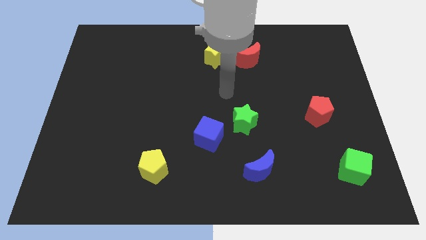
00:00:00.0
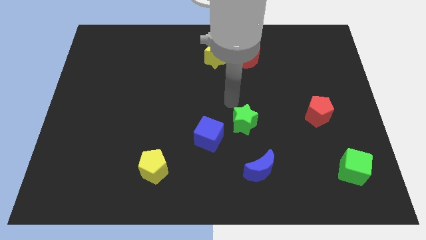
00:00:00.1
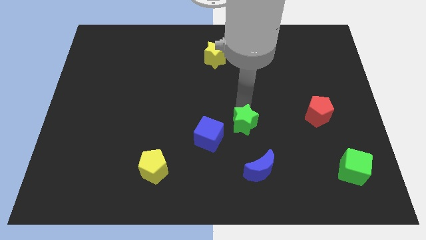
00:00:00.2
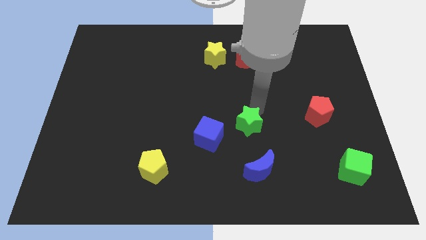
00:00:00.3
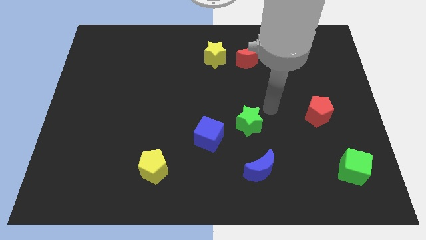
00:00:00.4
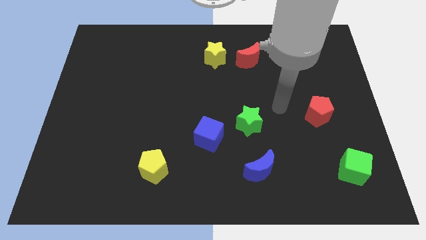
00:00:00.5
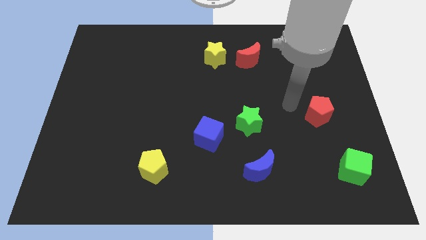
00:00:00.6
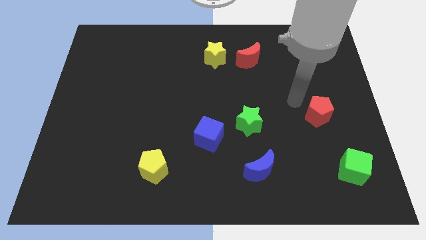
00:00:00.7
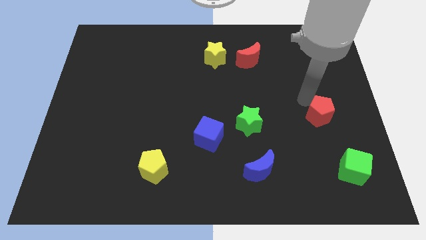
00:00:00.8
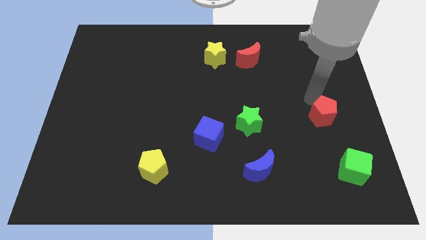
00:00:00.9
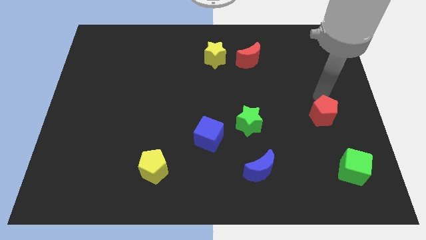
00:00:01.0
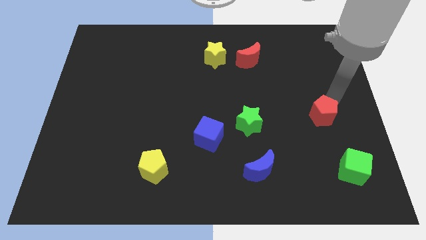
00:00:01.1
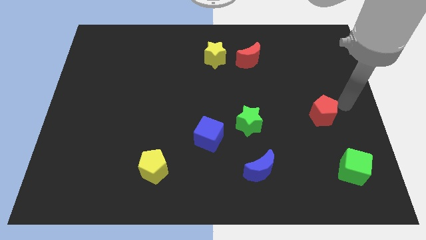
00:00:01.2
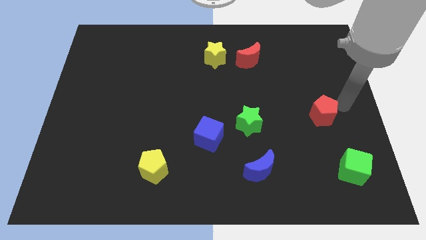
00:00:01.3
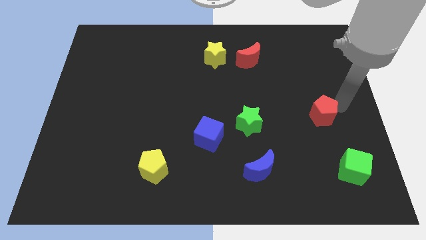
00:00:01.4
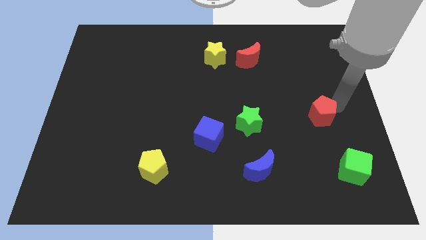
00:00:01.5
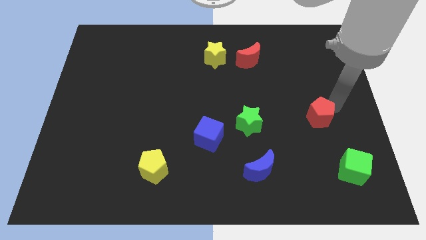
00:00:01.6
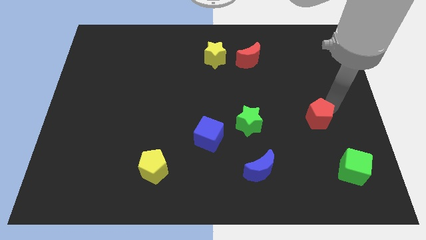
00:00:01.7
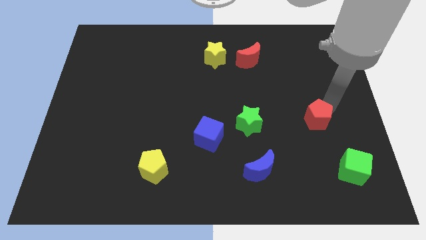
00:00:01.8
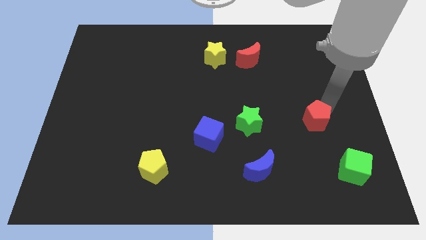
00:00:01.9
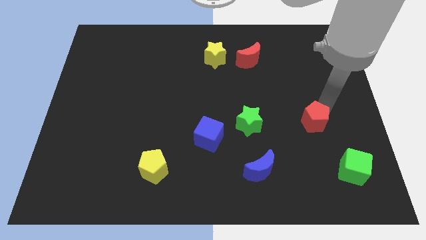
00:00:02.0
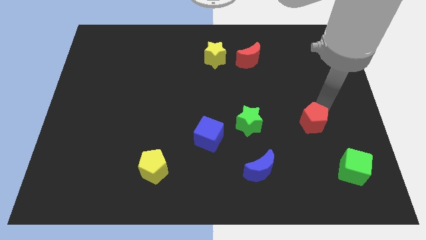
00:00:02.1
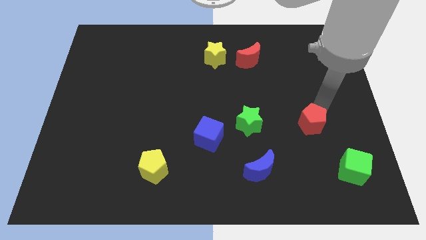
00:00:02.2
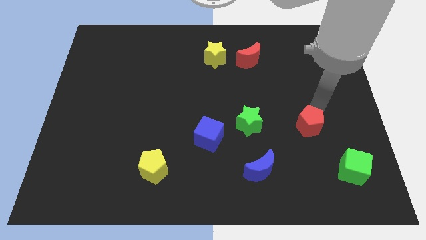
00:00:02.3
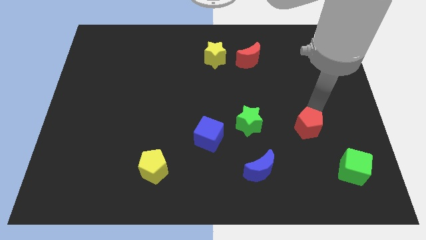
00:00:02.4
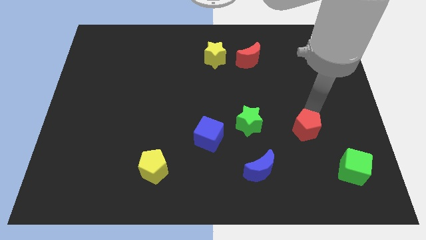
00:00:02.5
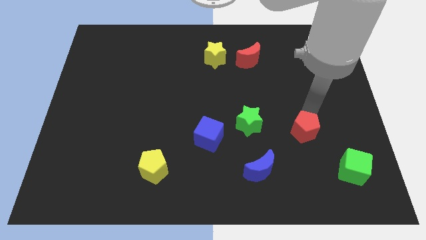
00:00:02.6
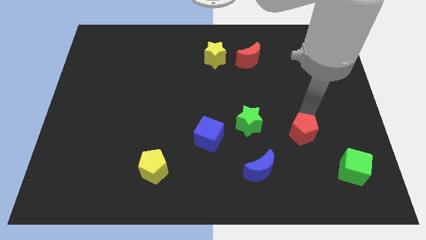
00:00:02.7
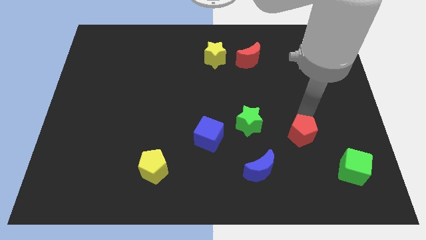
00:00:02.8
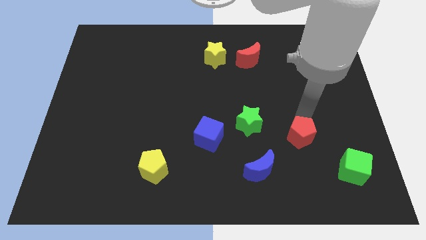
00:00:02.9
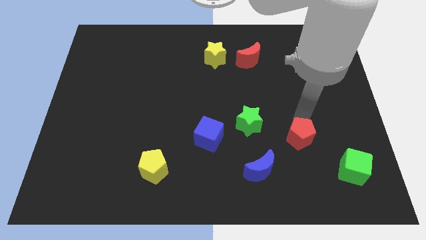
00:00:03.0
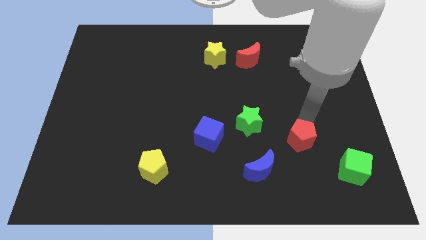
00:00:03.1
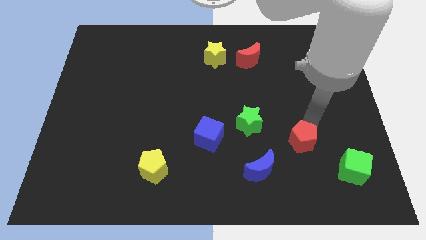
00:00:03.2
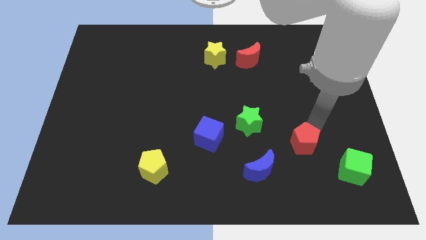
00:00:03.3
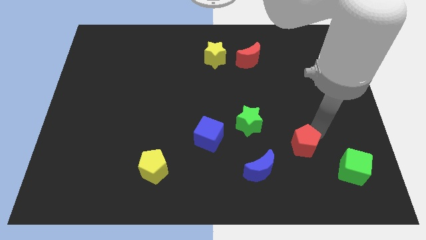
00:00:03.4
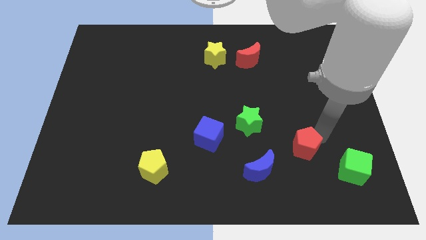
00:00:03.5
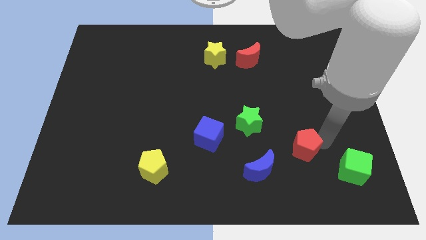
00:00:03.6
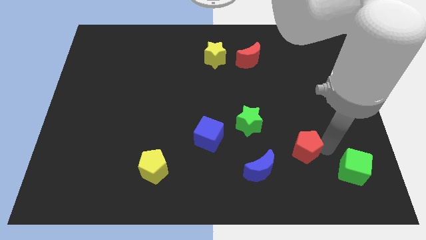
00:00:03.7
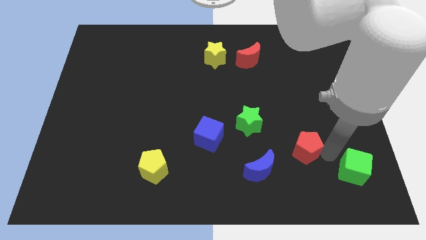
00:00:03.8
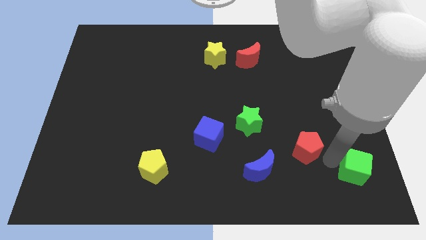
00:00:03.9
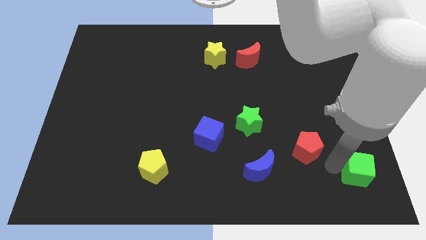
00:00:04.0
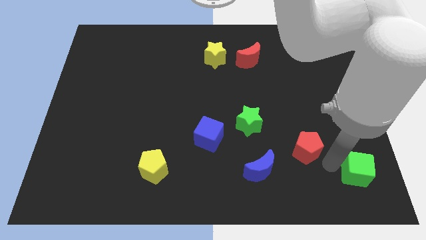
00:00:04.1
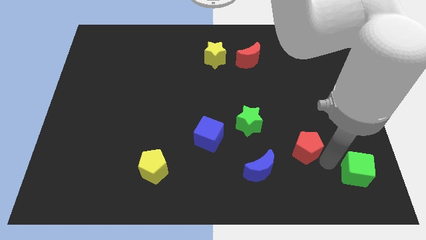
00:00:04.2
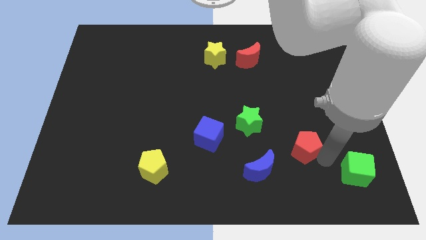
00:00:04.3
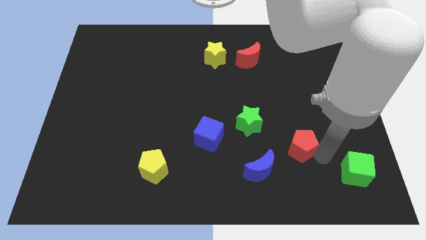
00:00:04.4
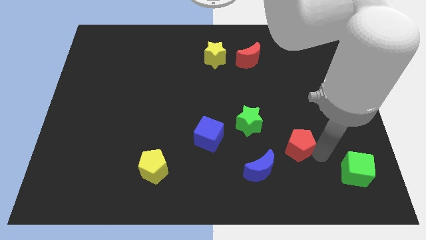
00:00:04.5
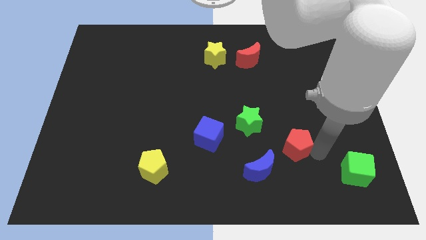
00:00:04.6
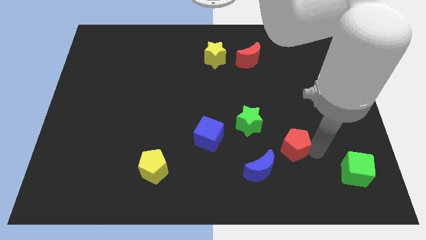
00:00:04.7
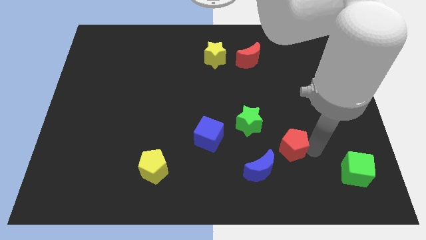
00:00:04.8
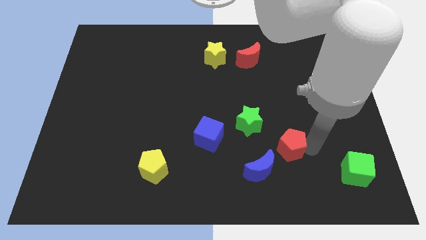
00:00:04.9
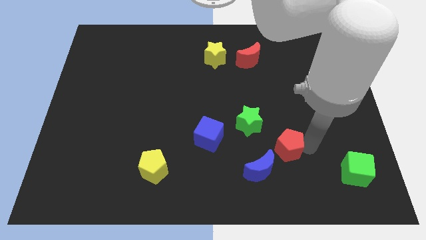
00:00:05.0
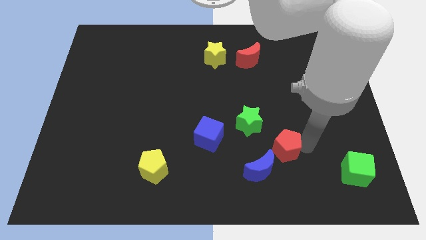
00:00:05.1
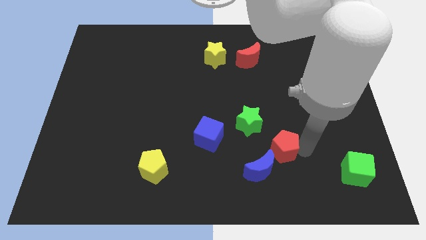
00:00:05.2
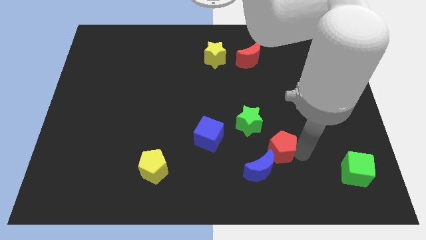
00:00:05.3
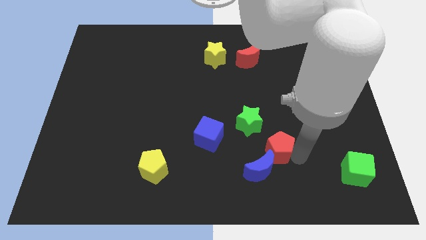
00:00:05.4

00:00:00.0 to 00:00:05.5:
move the red pentagon towards the blue moon

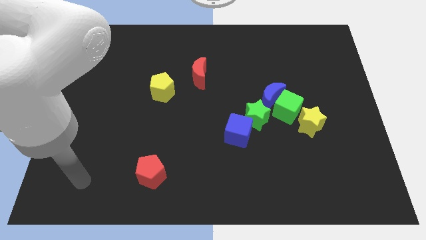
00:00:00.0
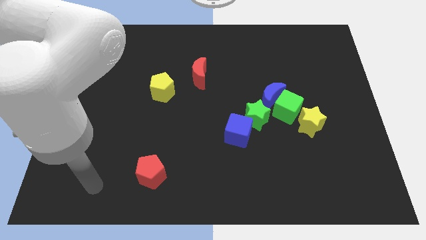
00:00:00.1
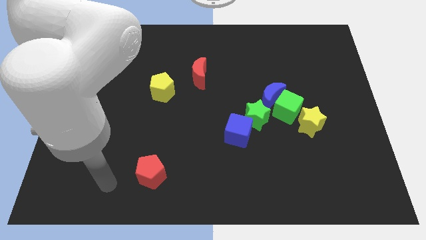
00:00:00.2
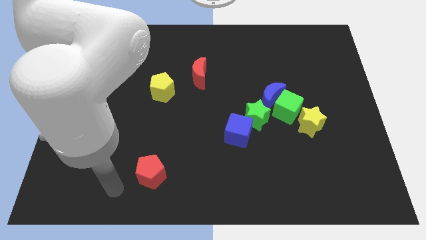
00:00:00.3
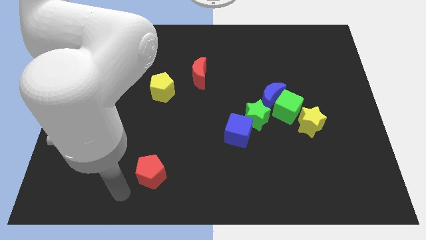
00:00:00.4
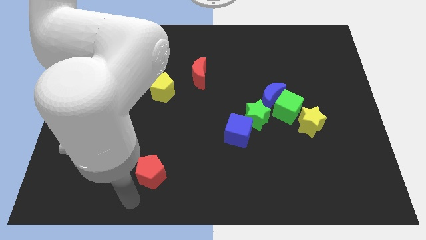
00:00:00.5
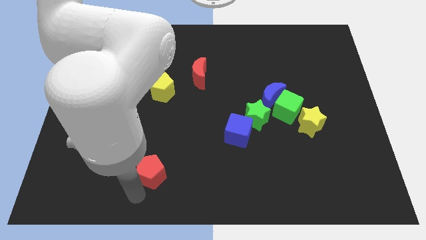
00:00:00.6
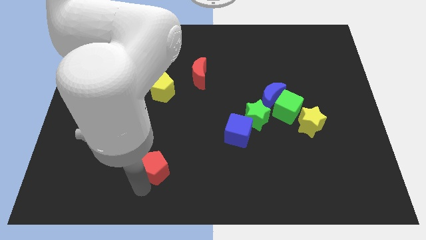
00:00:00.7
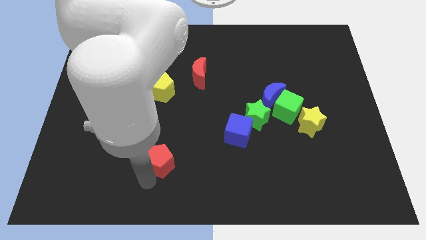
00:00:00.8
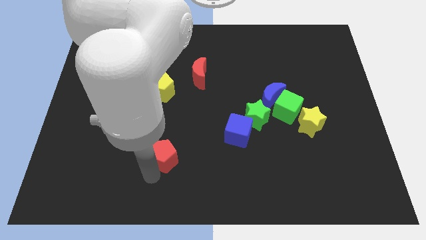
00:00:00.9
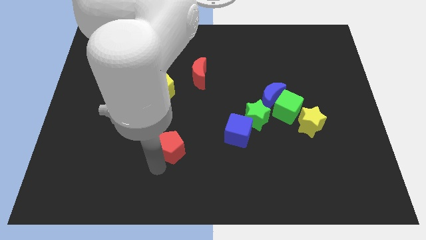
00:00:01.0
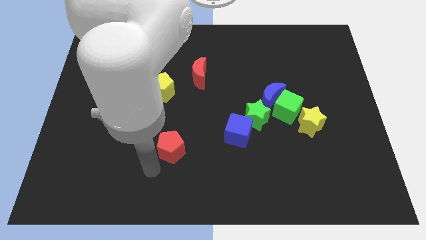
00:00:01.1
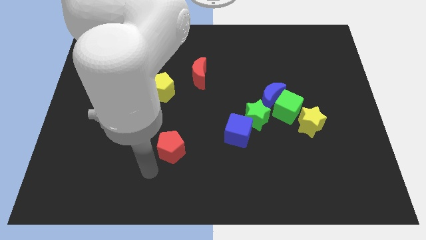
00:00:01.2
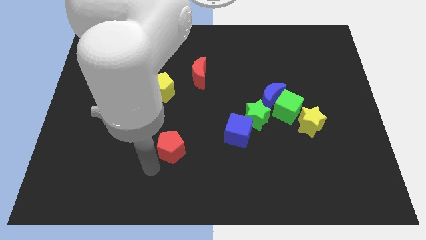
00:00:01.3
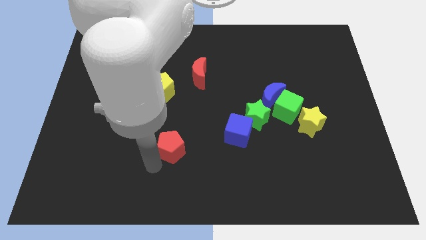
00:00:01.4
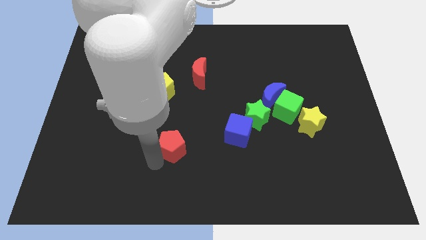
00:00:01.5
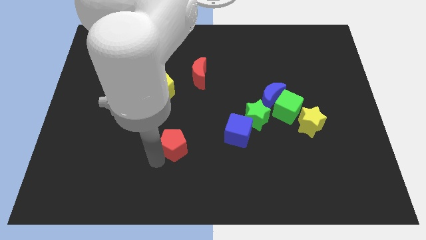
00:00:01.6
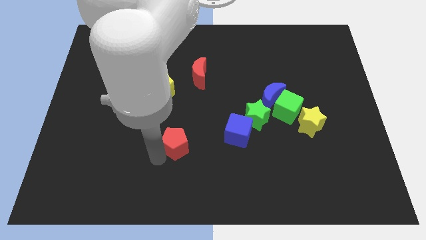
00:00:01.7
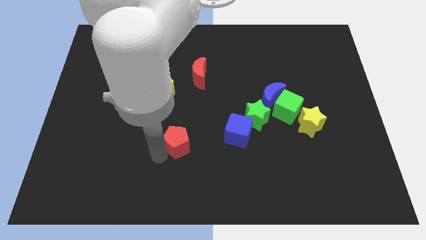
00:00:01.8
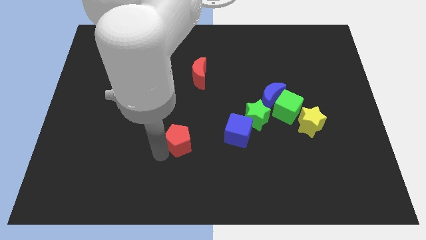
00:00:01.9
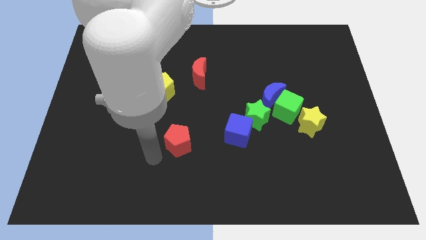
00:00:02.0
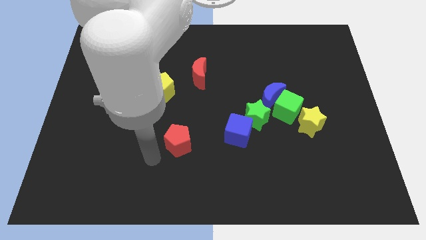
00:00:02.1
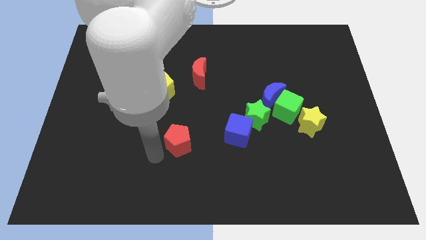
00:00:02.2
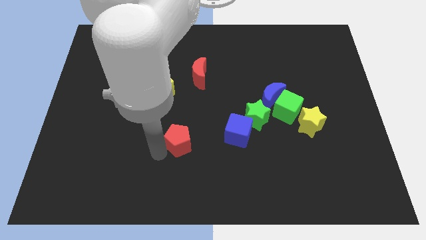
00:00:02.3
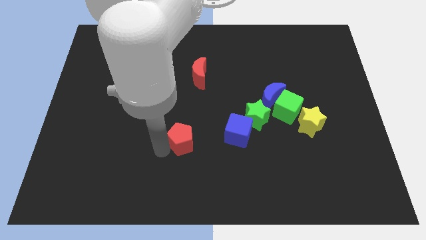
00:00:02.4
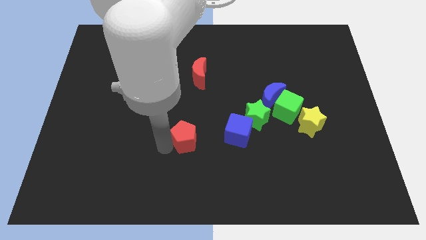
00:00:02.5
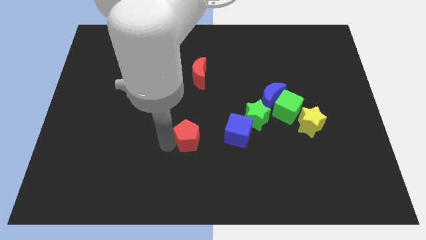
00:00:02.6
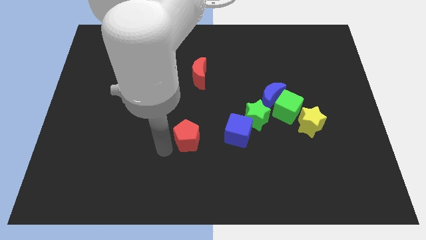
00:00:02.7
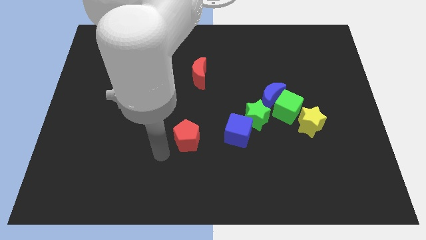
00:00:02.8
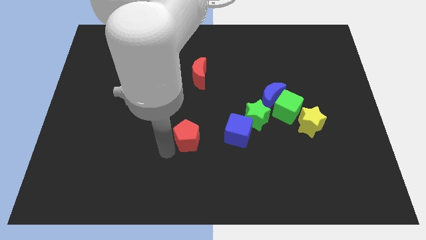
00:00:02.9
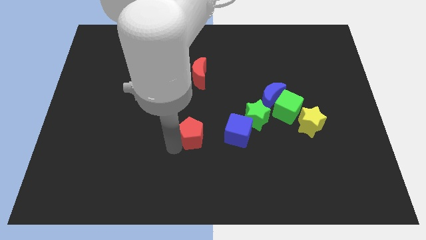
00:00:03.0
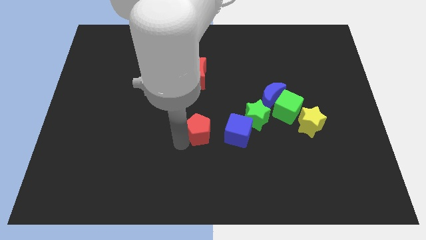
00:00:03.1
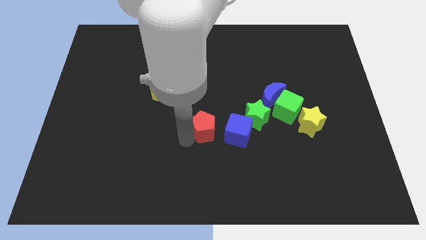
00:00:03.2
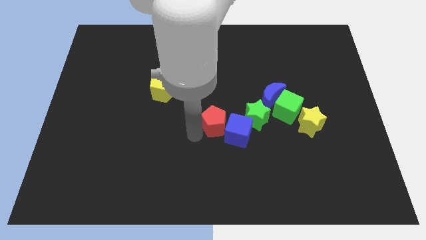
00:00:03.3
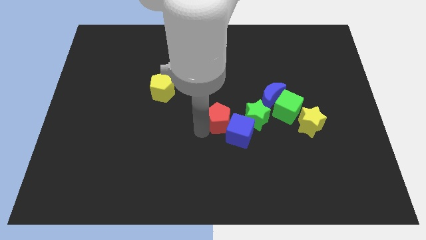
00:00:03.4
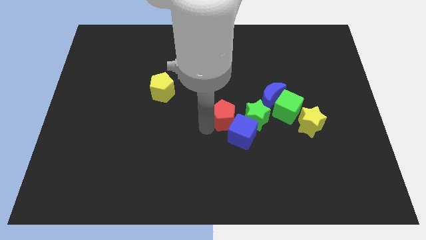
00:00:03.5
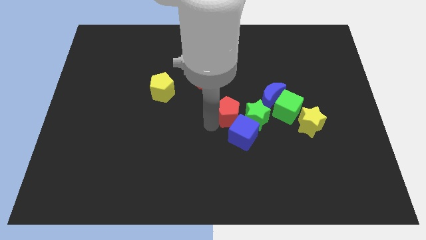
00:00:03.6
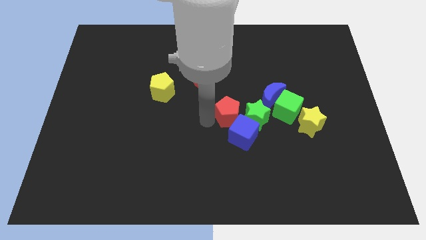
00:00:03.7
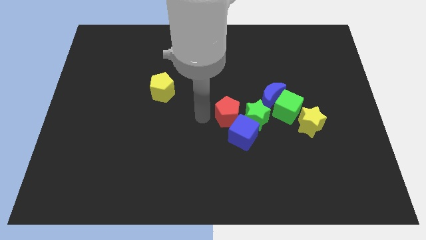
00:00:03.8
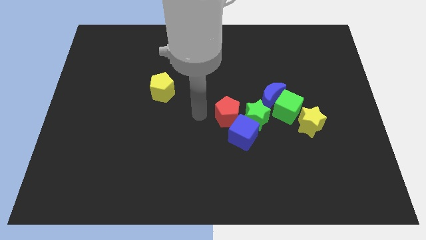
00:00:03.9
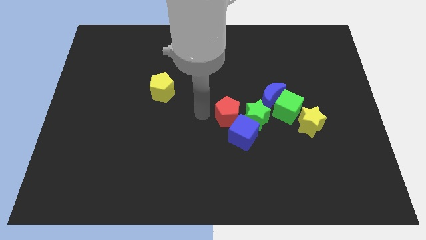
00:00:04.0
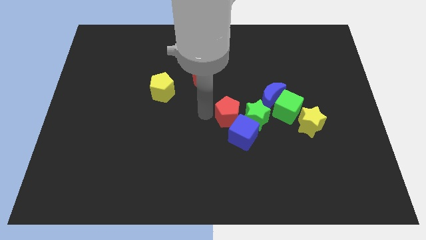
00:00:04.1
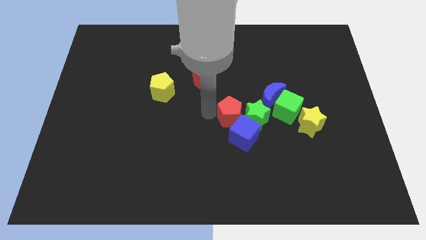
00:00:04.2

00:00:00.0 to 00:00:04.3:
move the red pentagon close to the green star
